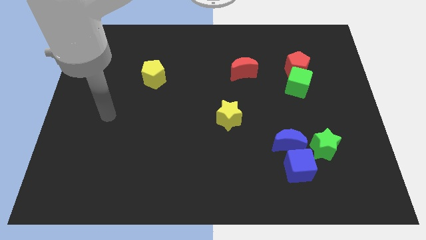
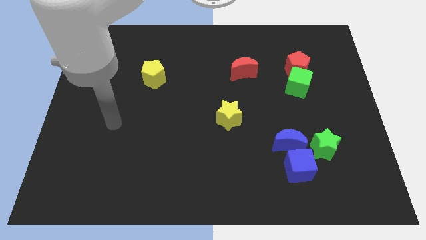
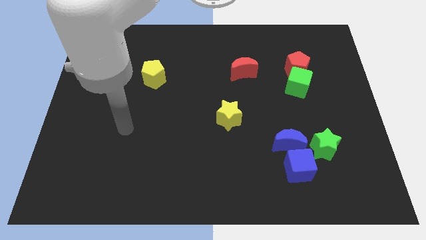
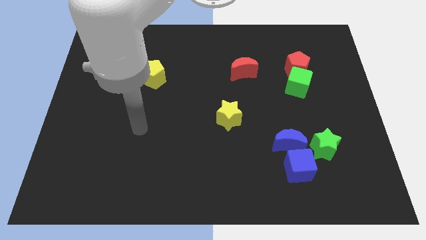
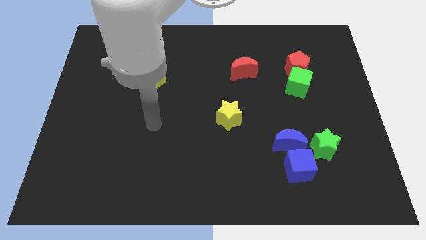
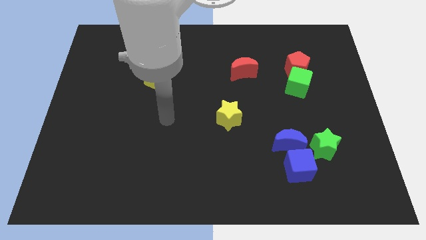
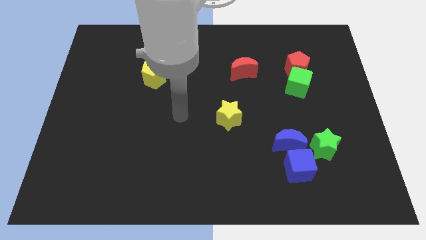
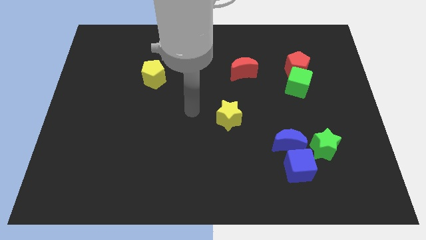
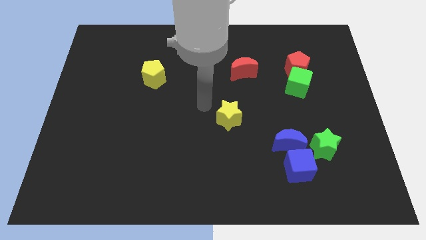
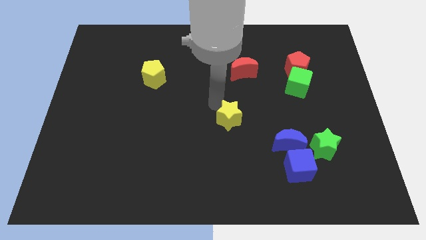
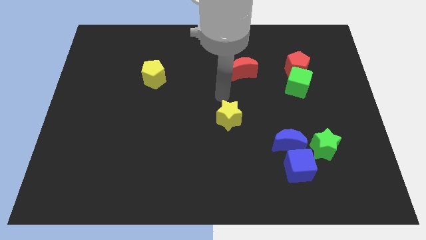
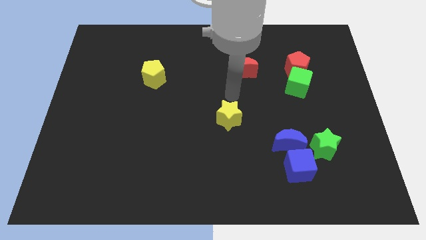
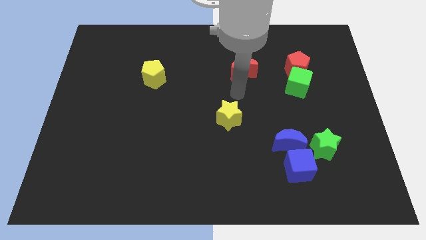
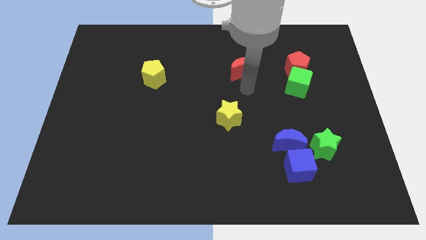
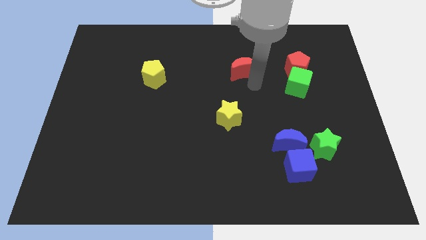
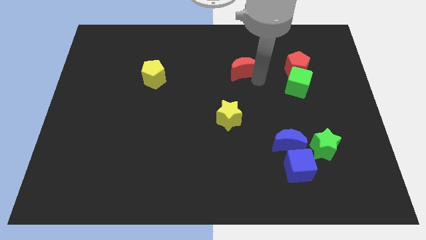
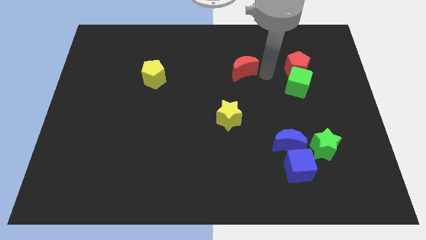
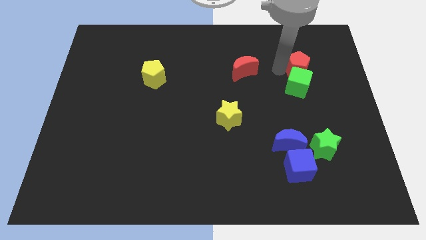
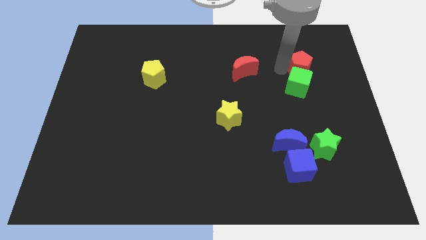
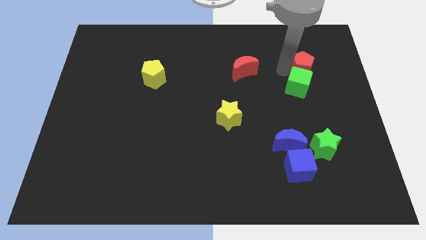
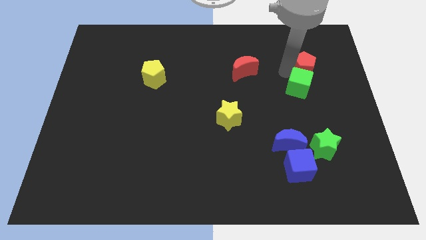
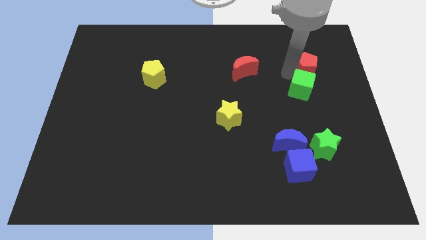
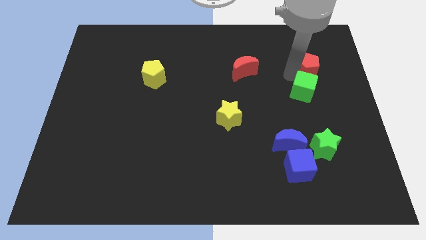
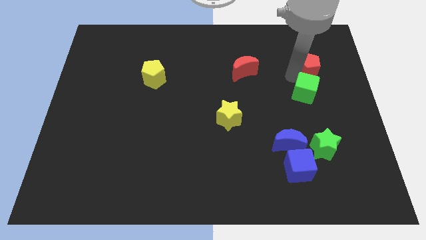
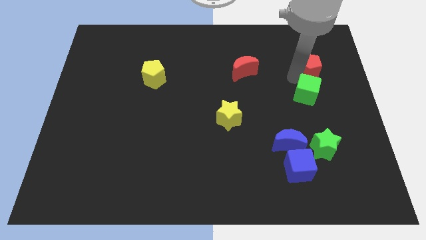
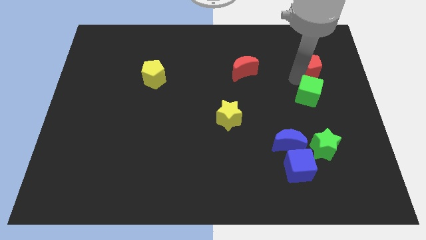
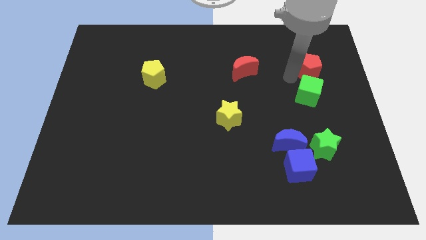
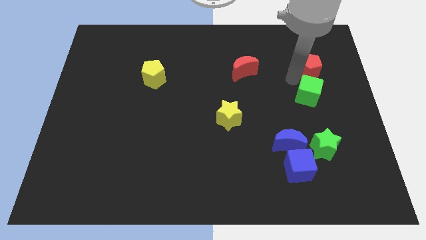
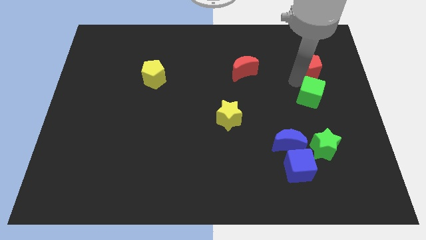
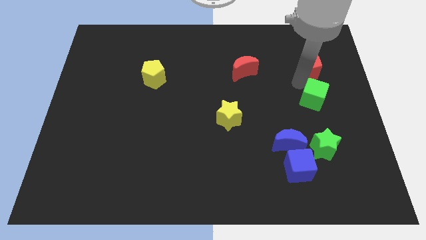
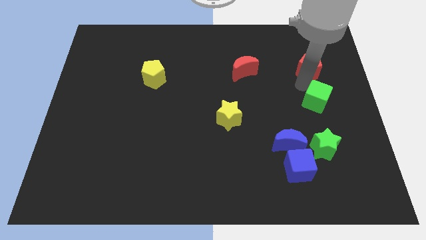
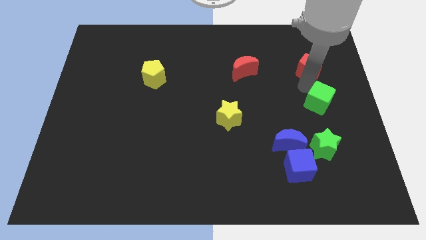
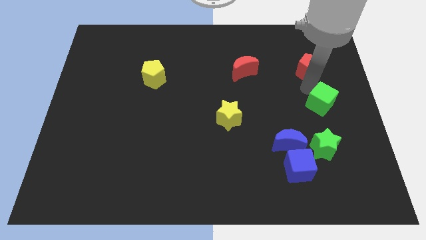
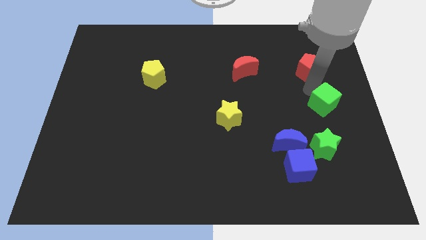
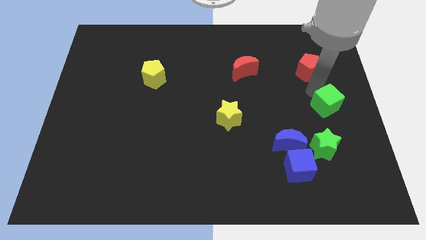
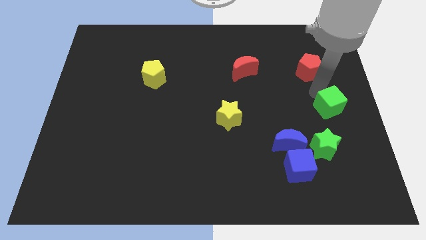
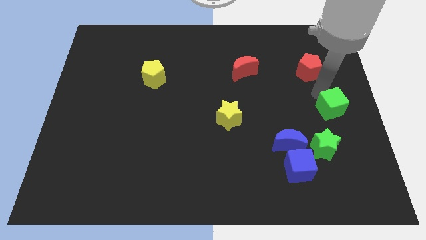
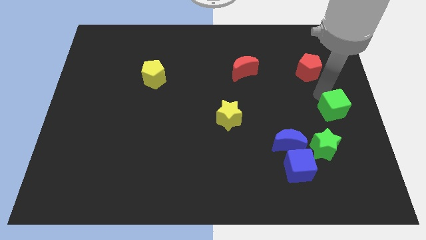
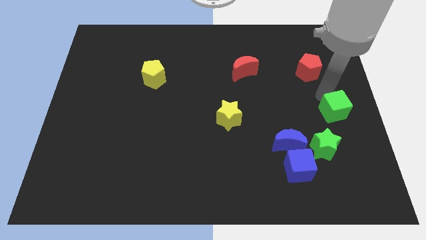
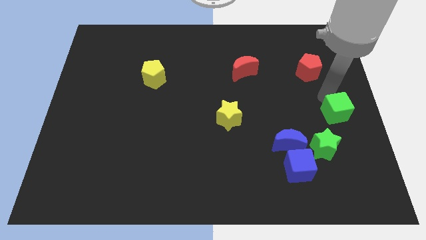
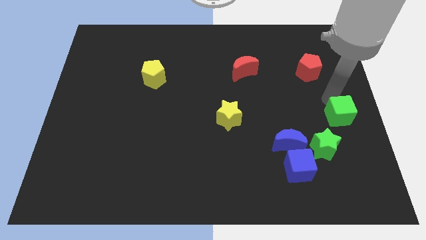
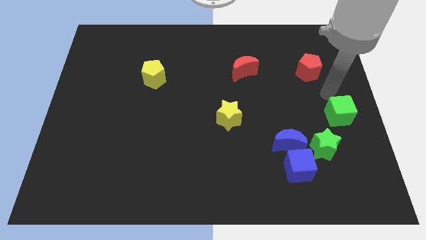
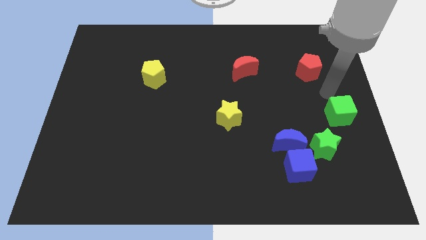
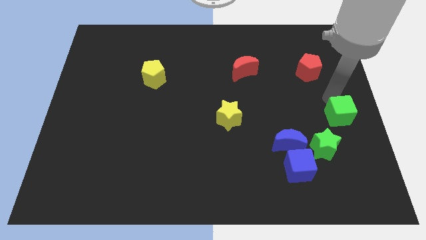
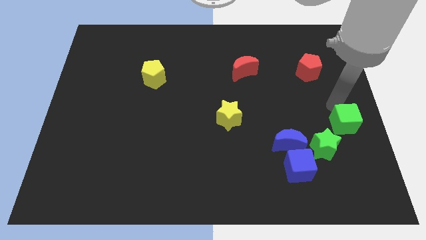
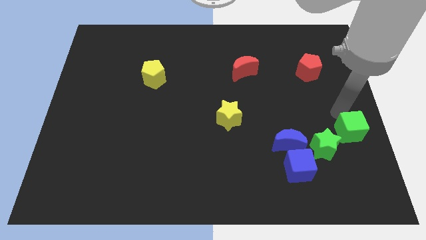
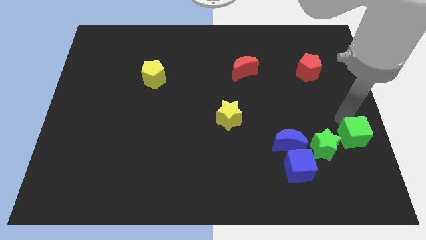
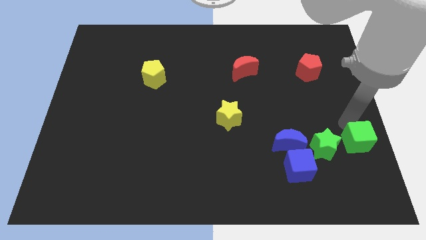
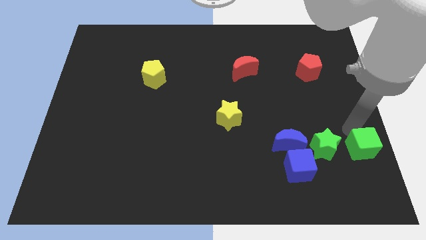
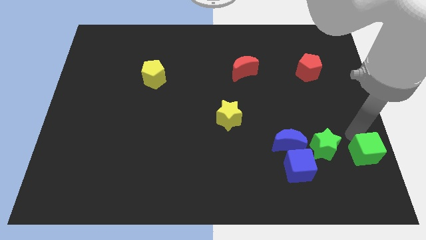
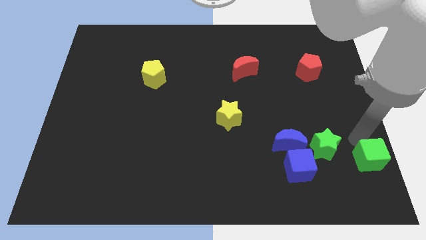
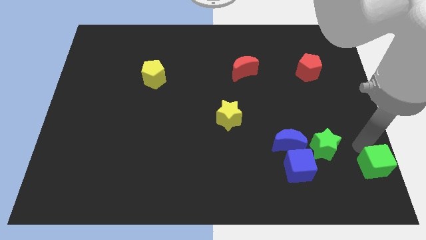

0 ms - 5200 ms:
push the green cube to the bottom right corner
